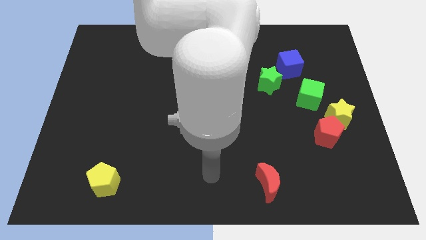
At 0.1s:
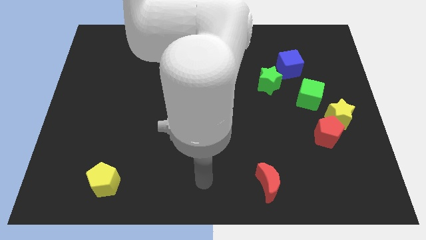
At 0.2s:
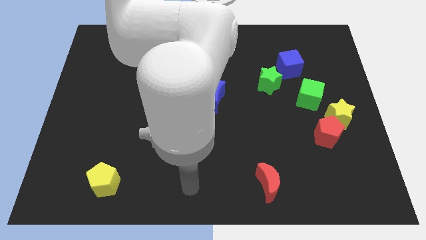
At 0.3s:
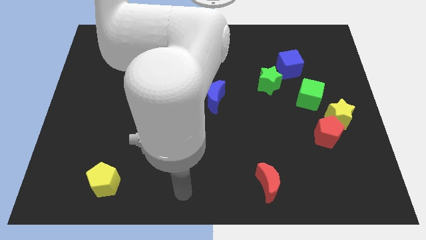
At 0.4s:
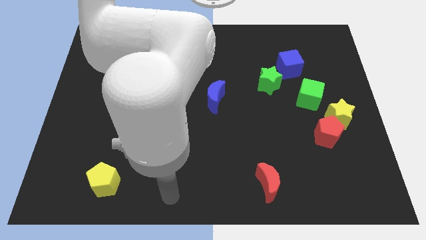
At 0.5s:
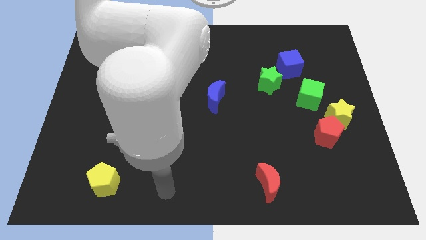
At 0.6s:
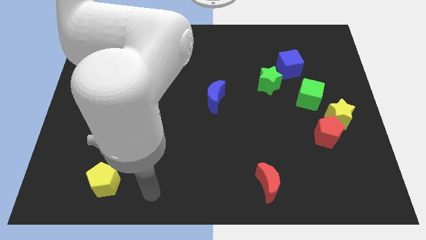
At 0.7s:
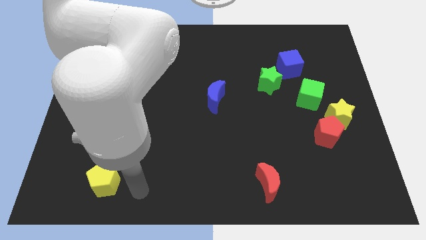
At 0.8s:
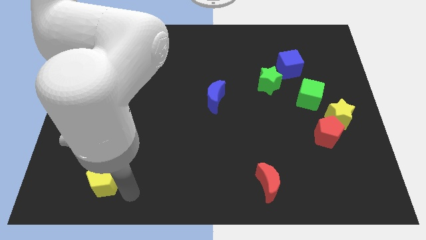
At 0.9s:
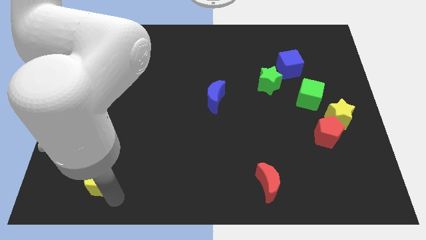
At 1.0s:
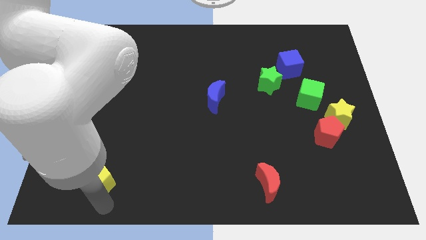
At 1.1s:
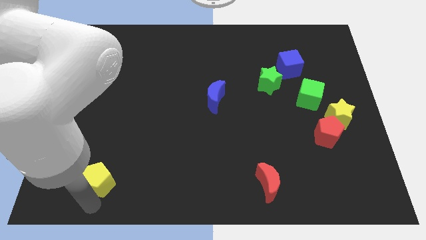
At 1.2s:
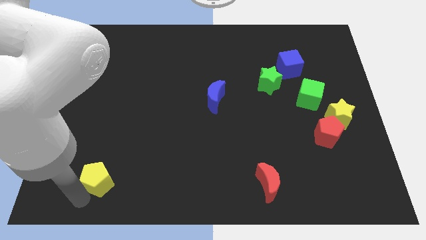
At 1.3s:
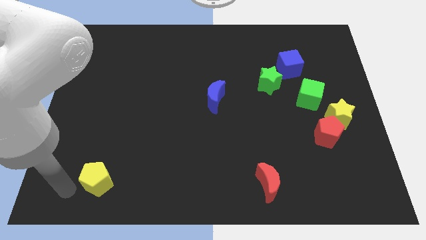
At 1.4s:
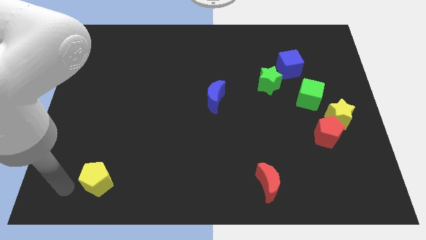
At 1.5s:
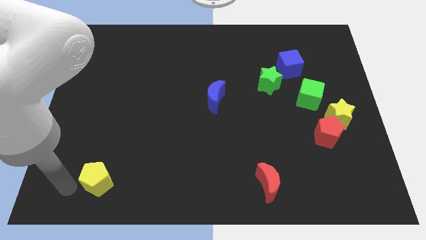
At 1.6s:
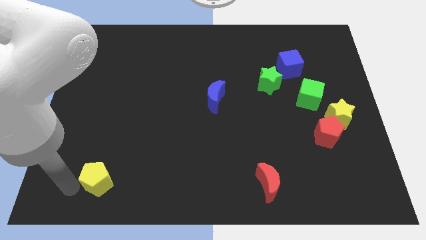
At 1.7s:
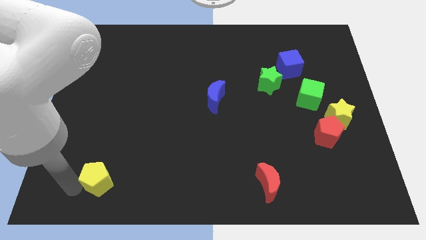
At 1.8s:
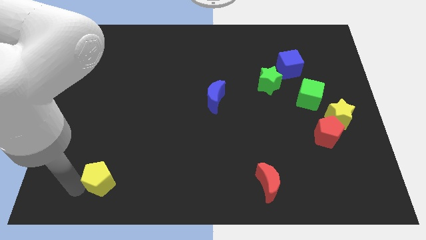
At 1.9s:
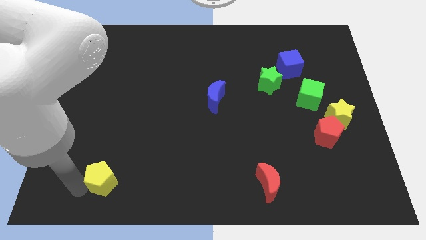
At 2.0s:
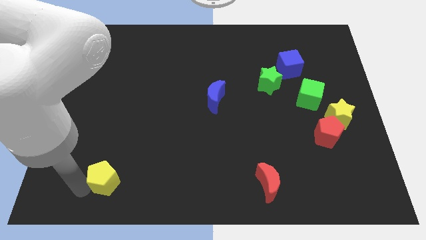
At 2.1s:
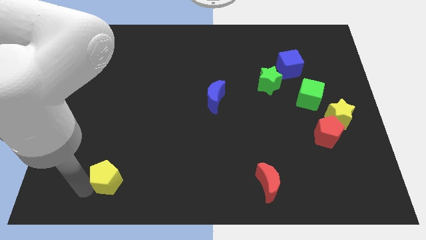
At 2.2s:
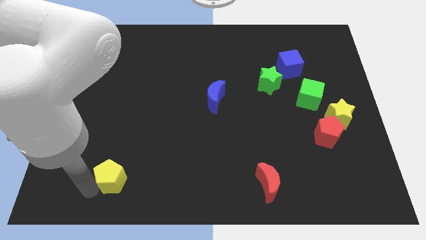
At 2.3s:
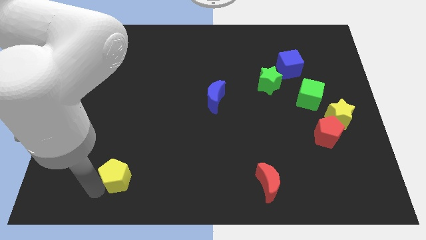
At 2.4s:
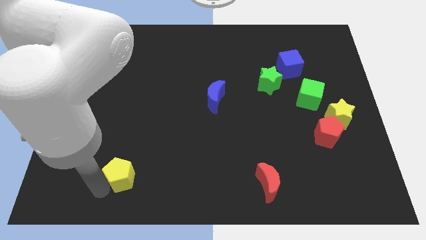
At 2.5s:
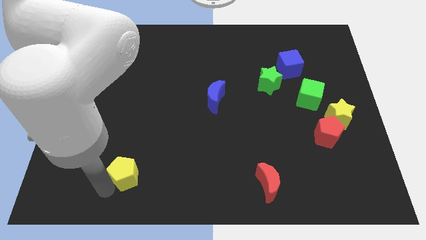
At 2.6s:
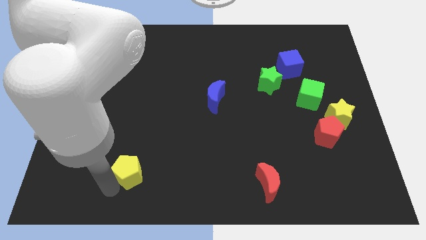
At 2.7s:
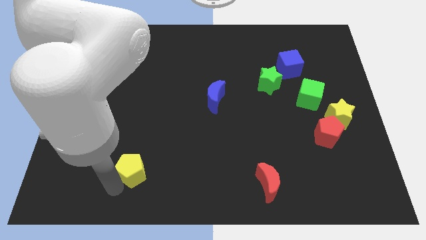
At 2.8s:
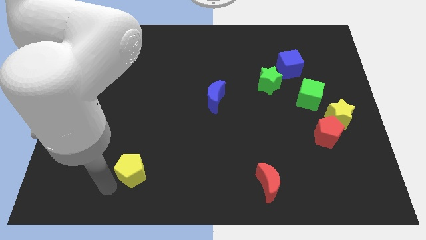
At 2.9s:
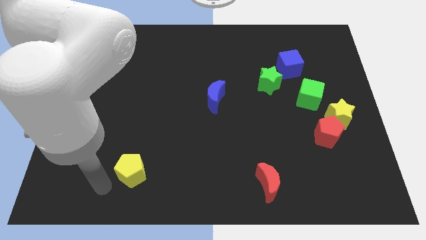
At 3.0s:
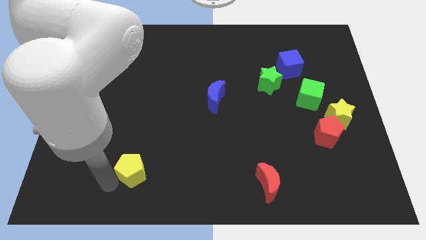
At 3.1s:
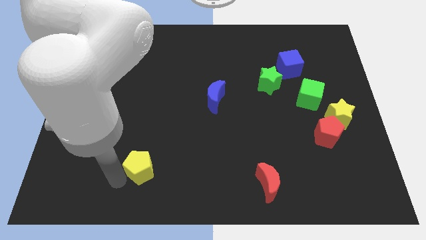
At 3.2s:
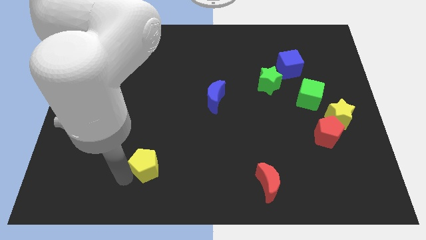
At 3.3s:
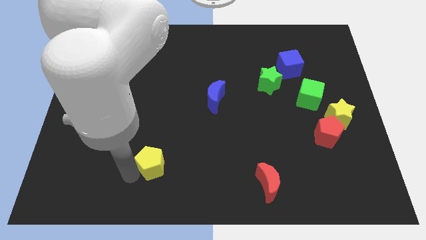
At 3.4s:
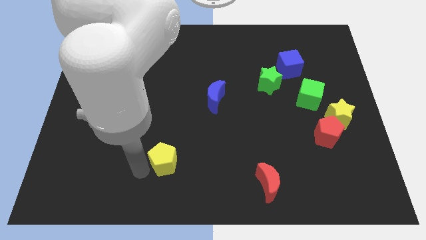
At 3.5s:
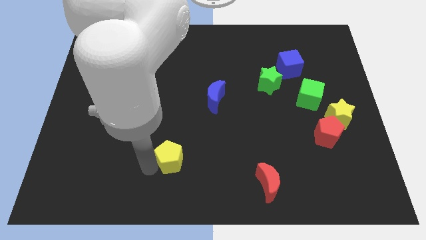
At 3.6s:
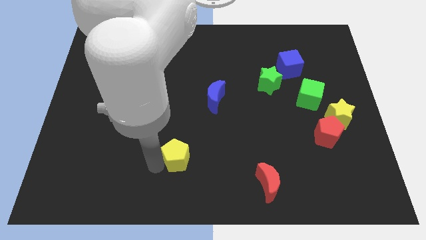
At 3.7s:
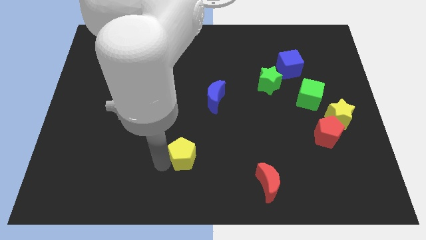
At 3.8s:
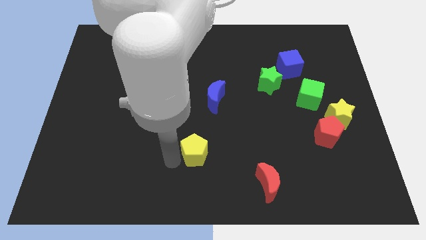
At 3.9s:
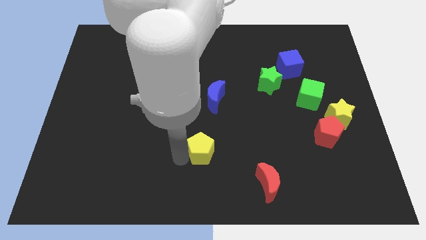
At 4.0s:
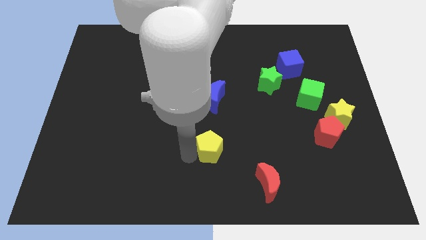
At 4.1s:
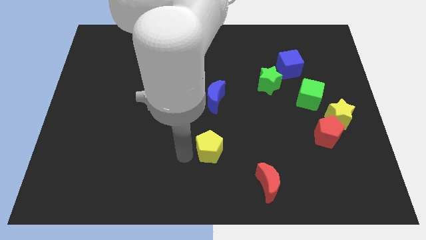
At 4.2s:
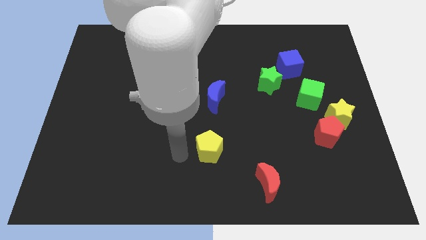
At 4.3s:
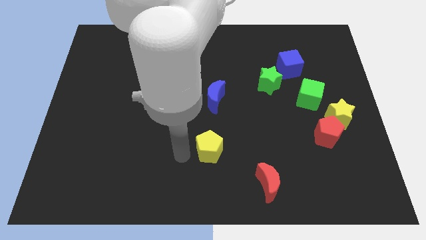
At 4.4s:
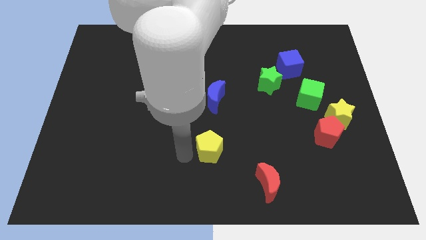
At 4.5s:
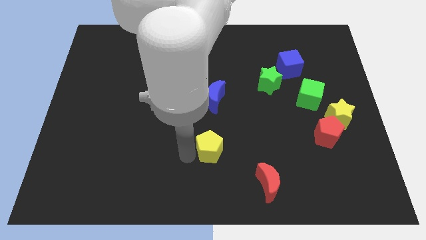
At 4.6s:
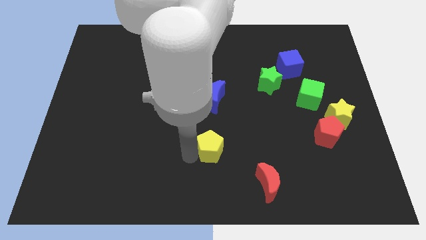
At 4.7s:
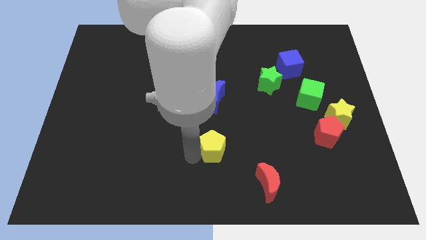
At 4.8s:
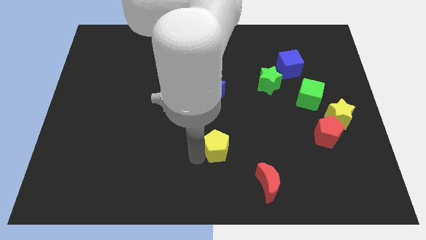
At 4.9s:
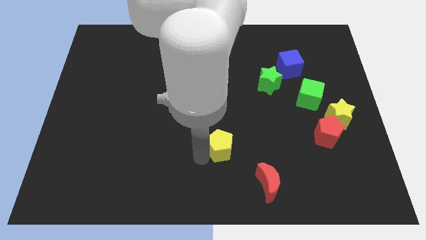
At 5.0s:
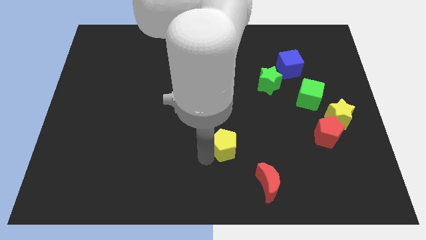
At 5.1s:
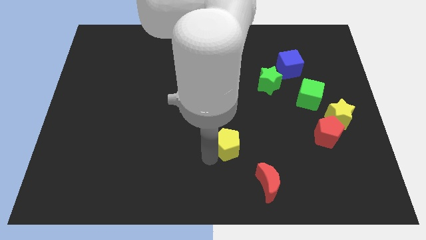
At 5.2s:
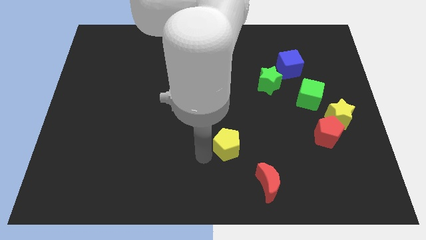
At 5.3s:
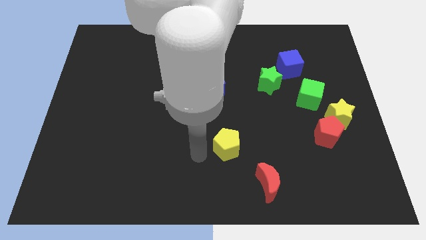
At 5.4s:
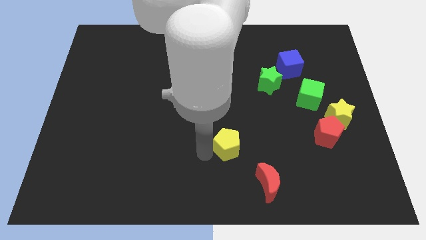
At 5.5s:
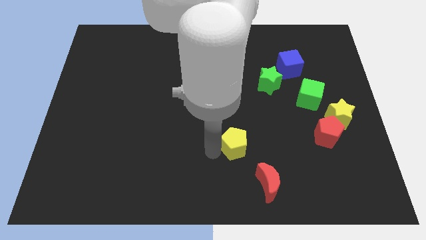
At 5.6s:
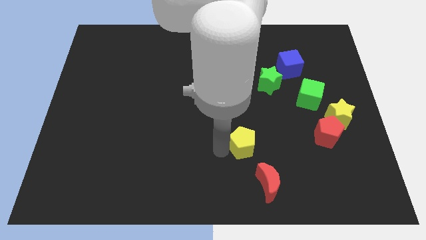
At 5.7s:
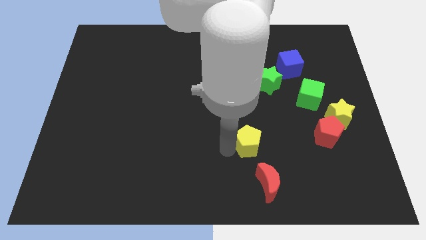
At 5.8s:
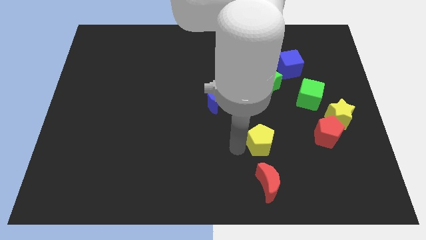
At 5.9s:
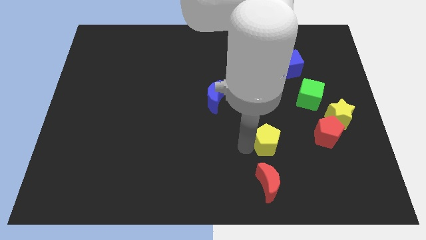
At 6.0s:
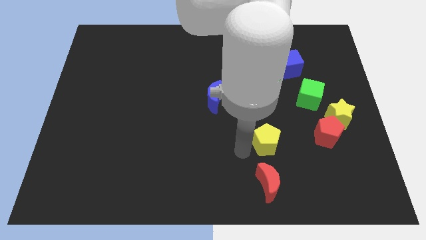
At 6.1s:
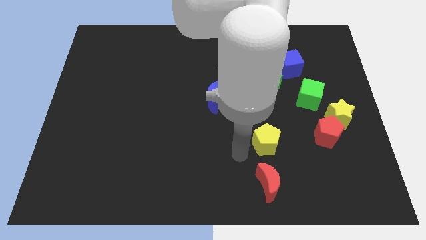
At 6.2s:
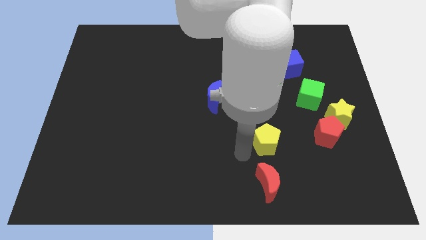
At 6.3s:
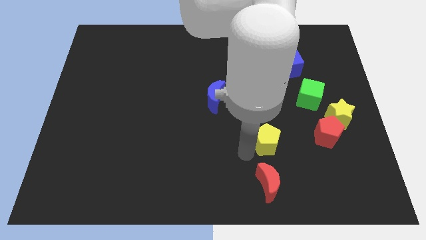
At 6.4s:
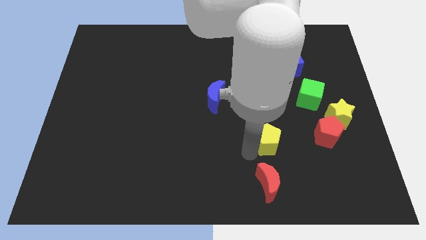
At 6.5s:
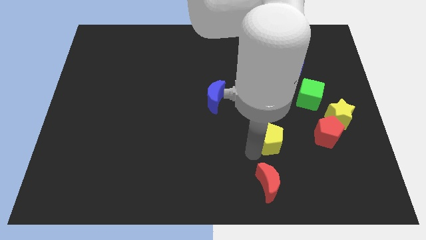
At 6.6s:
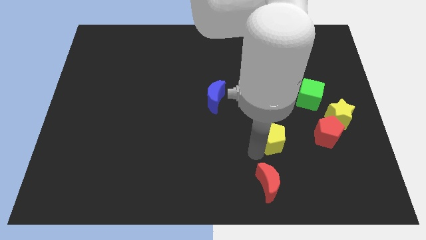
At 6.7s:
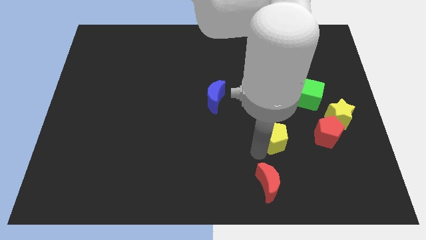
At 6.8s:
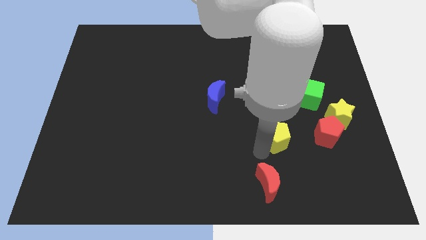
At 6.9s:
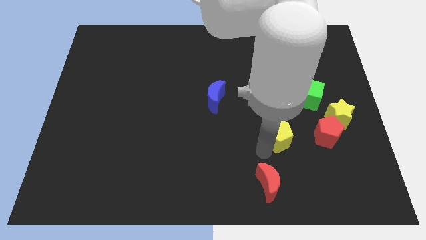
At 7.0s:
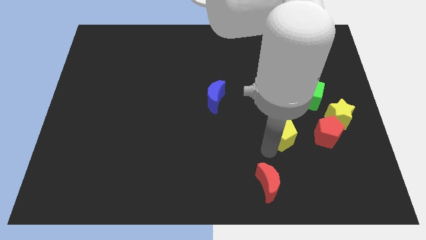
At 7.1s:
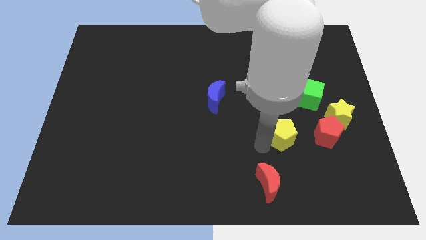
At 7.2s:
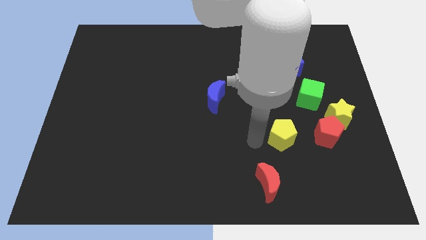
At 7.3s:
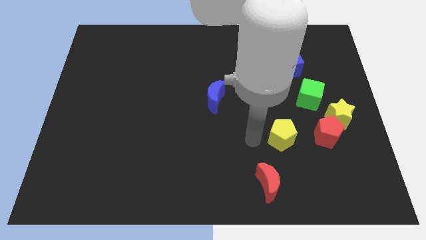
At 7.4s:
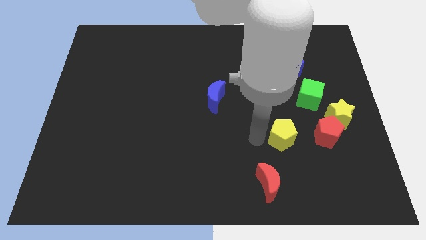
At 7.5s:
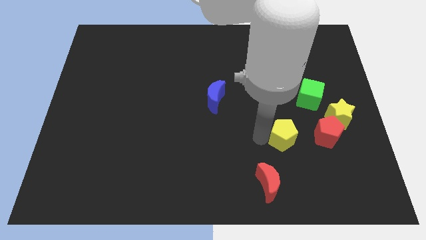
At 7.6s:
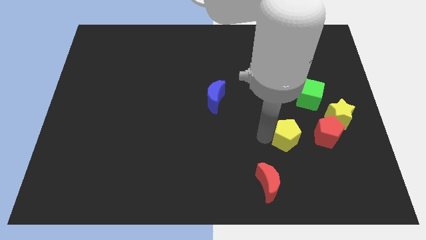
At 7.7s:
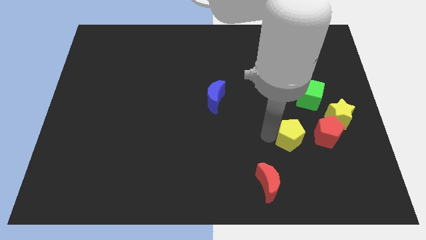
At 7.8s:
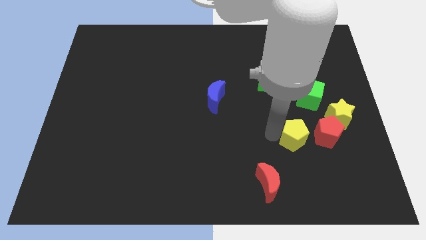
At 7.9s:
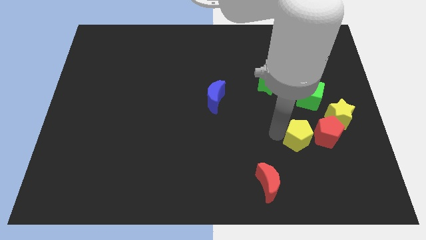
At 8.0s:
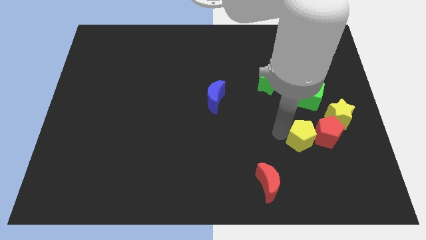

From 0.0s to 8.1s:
put the yellow pentagon to the red pentagon
